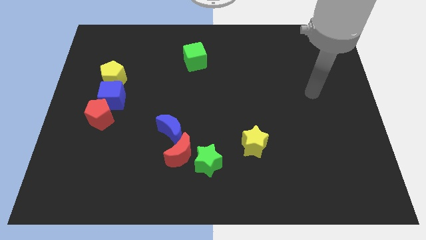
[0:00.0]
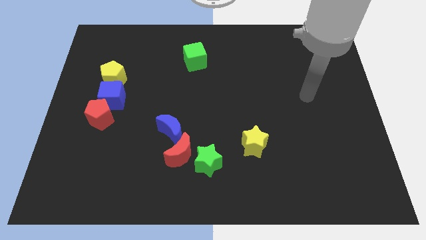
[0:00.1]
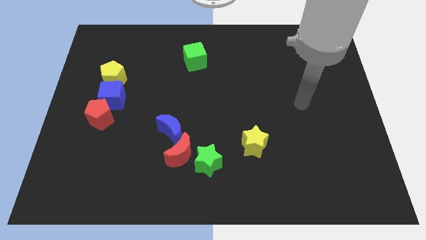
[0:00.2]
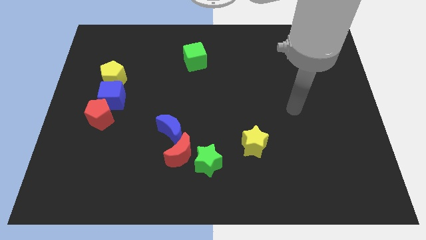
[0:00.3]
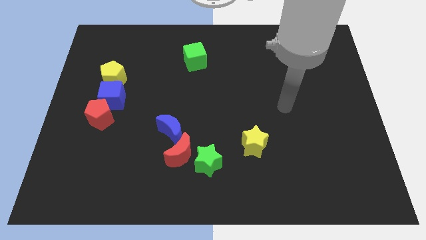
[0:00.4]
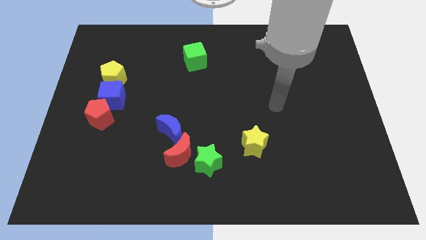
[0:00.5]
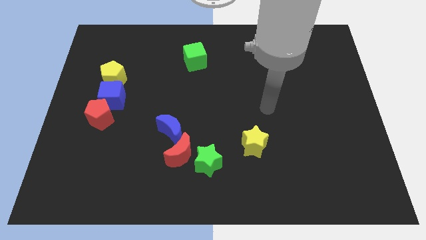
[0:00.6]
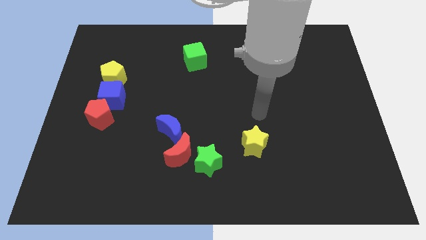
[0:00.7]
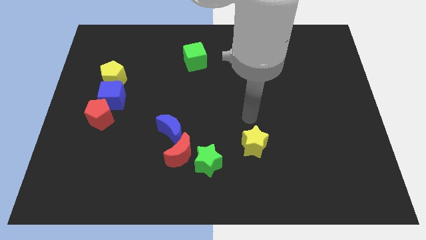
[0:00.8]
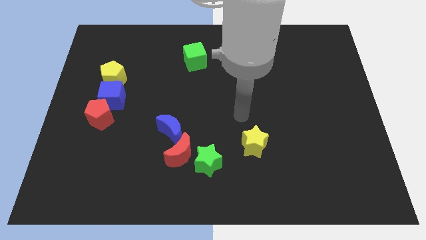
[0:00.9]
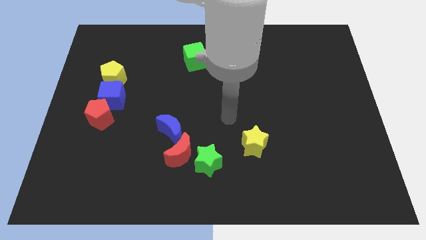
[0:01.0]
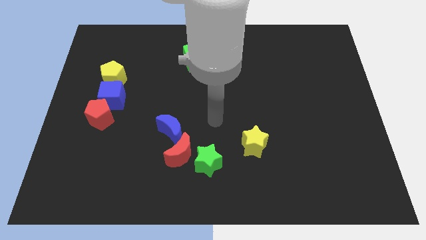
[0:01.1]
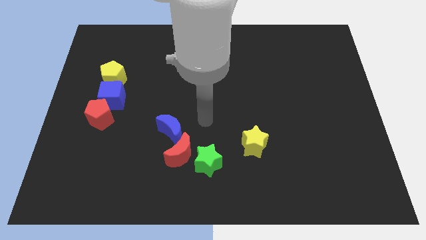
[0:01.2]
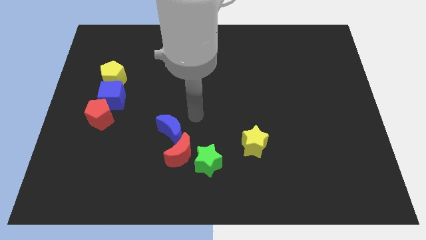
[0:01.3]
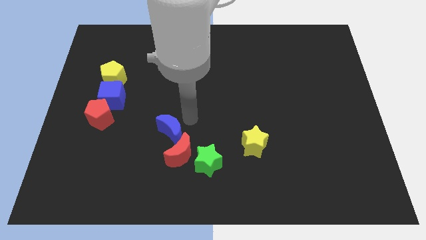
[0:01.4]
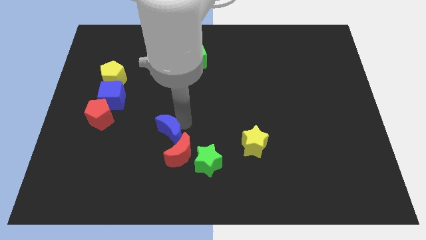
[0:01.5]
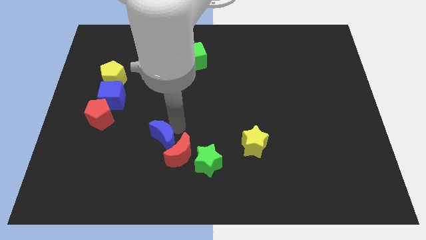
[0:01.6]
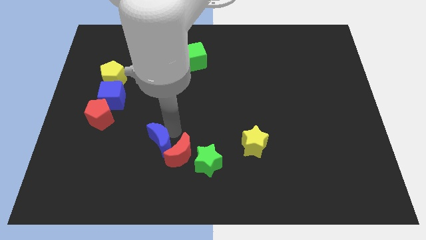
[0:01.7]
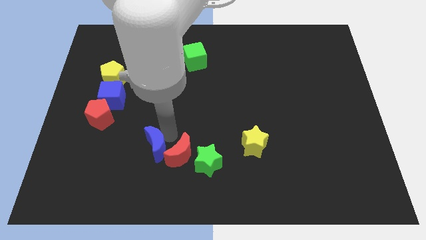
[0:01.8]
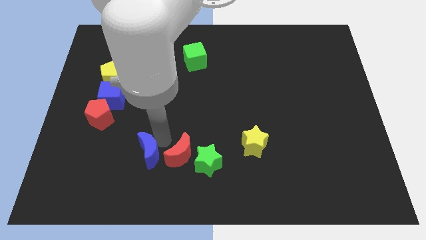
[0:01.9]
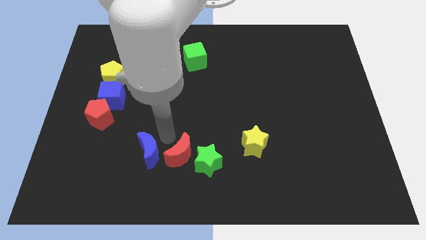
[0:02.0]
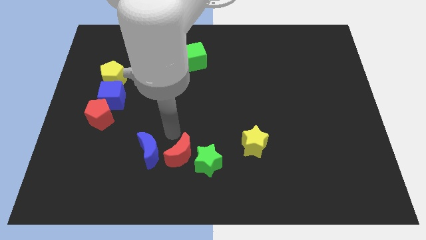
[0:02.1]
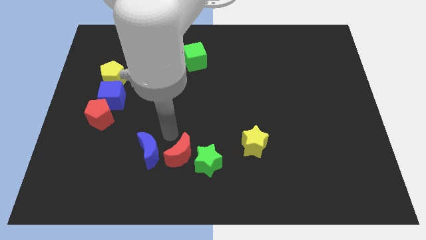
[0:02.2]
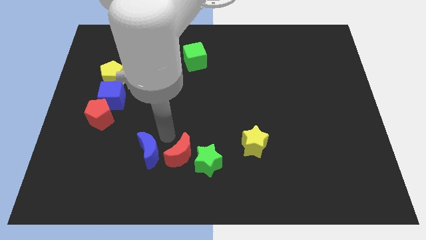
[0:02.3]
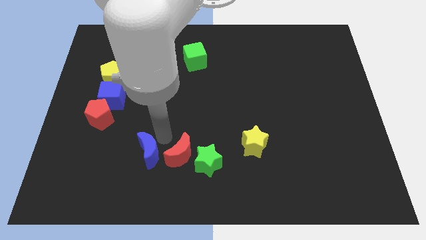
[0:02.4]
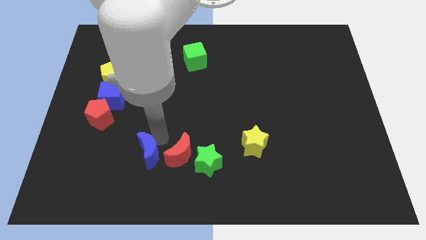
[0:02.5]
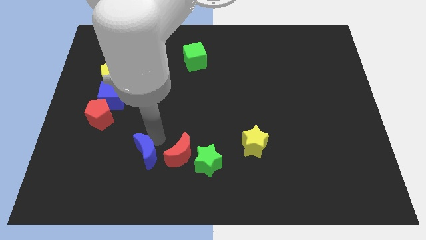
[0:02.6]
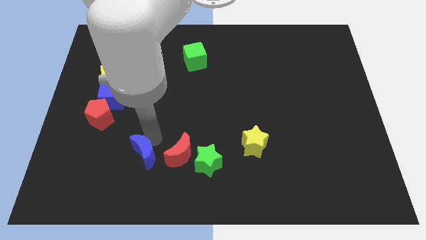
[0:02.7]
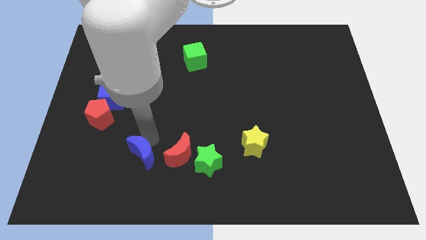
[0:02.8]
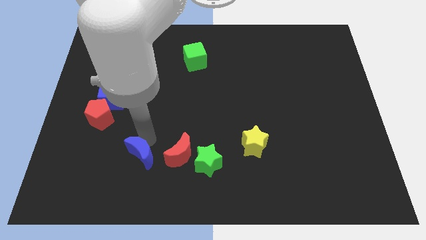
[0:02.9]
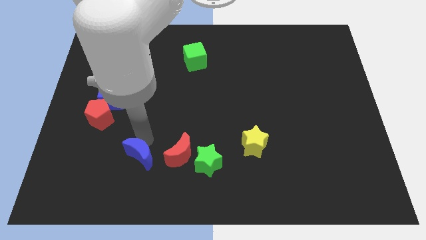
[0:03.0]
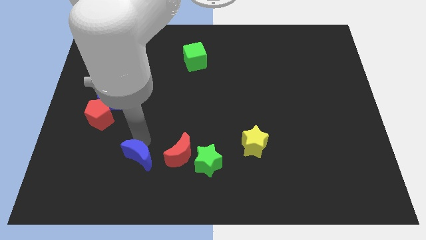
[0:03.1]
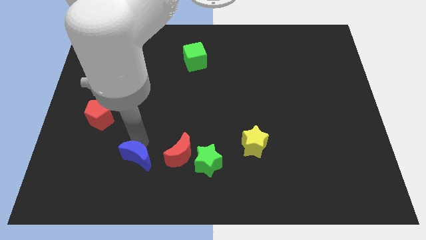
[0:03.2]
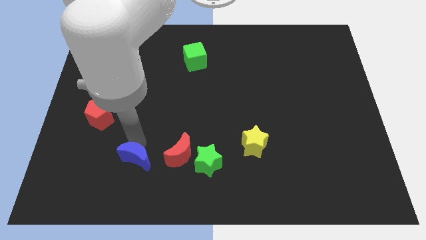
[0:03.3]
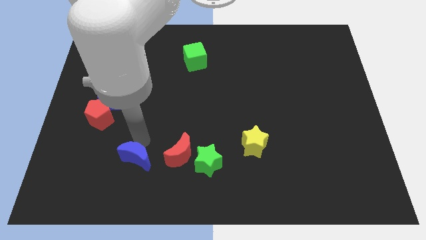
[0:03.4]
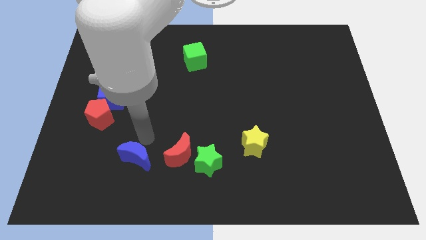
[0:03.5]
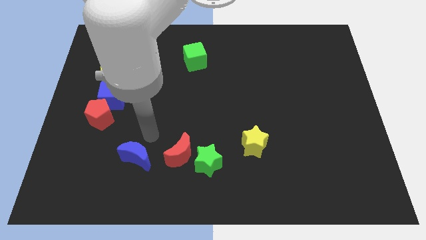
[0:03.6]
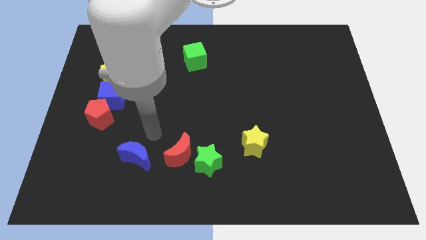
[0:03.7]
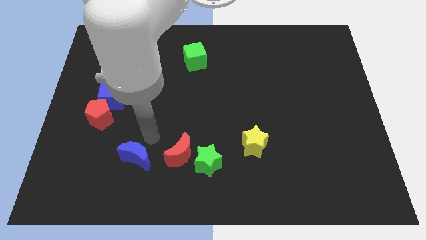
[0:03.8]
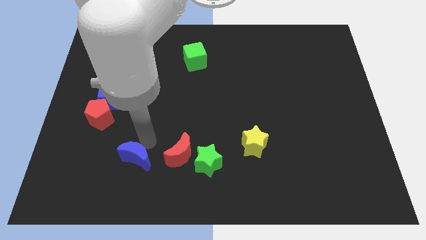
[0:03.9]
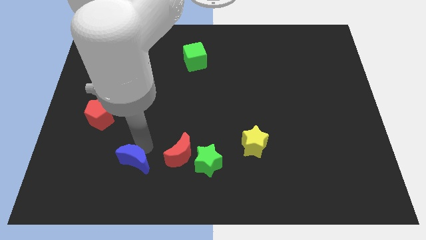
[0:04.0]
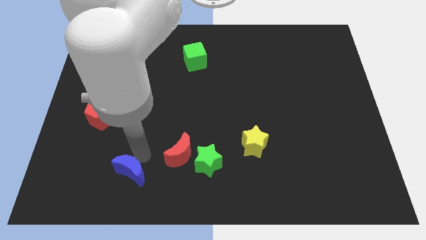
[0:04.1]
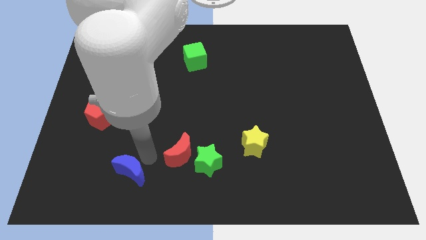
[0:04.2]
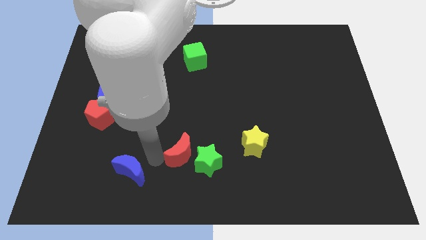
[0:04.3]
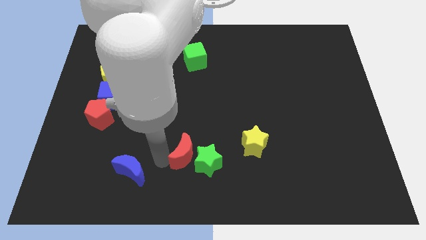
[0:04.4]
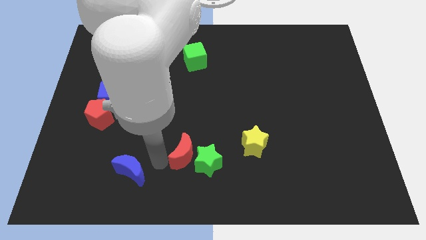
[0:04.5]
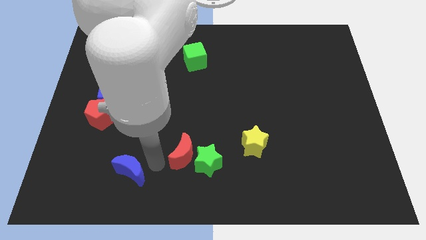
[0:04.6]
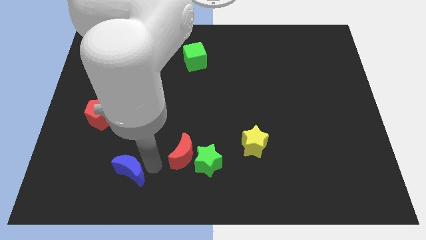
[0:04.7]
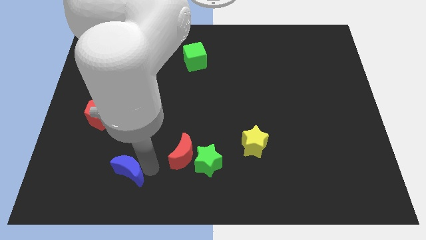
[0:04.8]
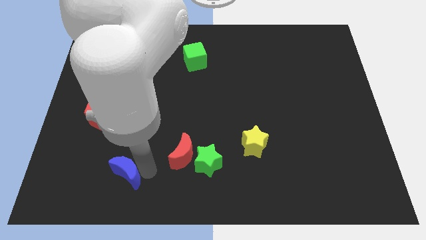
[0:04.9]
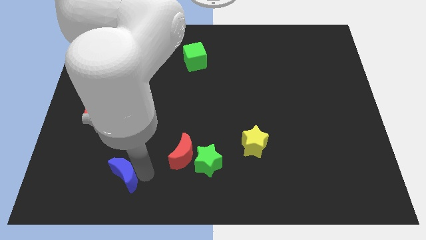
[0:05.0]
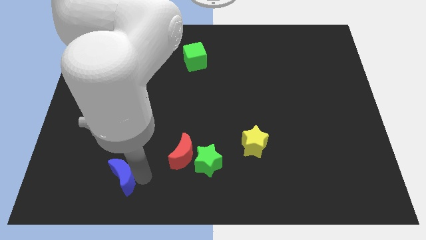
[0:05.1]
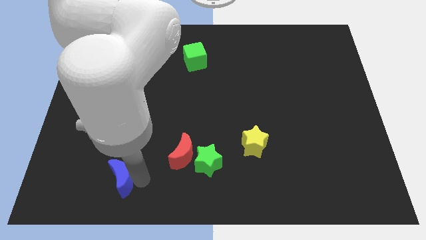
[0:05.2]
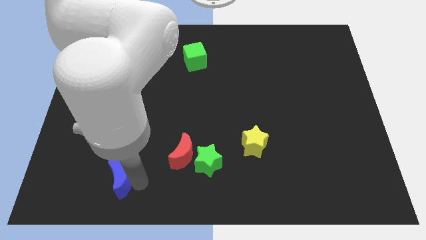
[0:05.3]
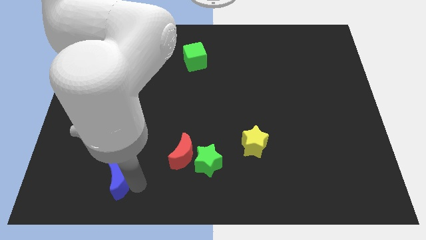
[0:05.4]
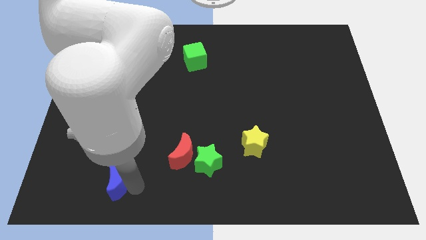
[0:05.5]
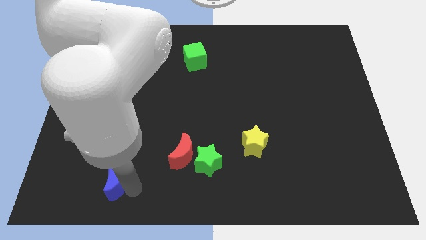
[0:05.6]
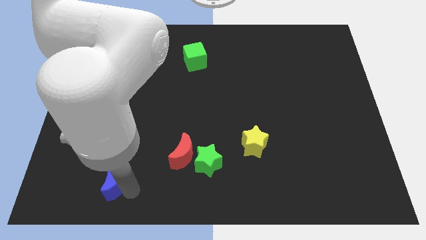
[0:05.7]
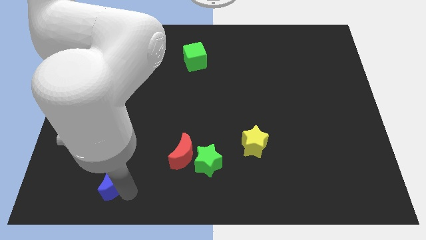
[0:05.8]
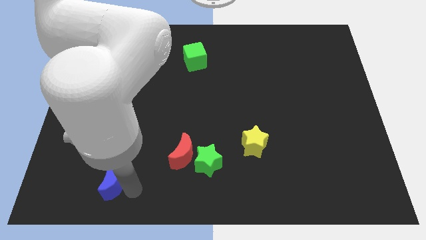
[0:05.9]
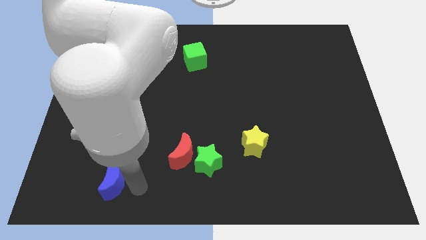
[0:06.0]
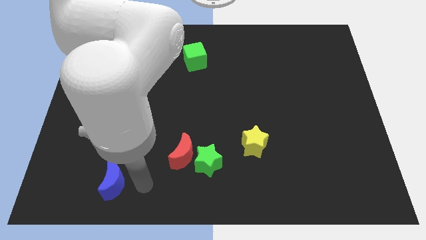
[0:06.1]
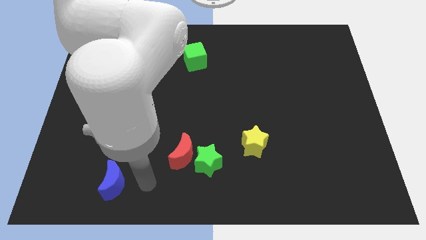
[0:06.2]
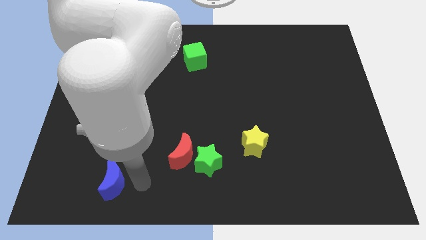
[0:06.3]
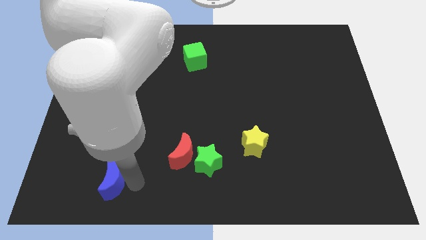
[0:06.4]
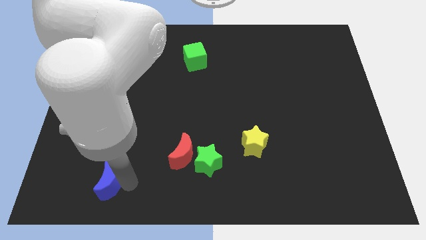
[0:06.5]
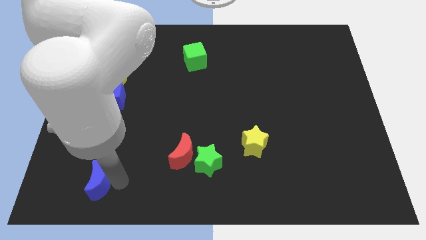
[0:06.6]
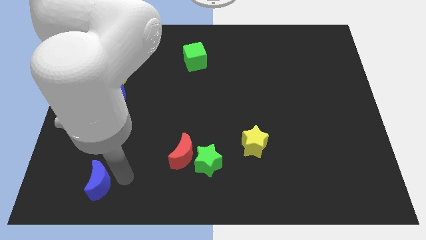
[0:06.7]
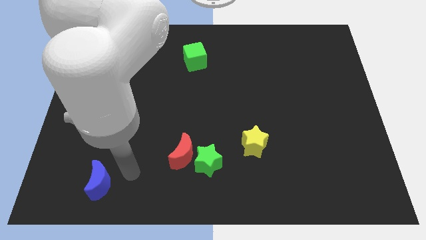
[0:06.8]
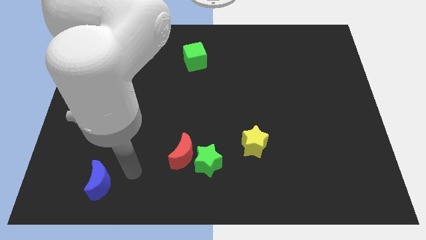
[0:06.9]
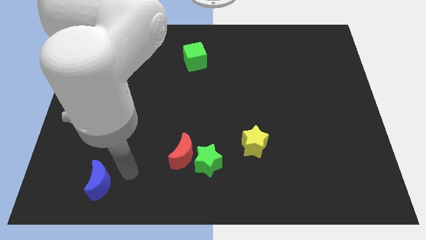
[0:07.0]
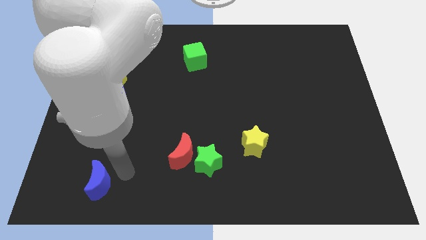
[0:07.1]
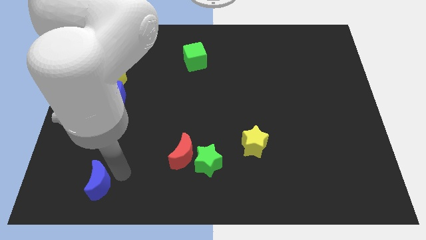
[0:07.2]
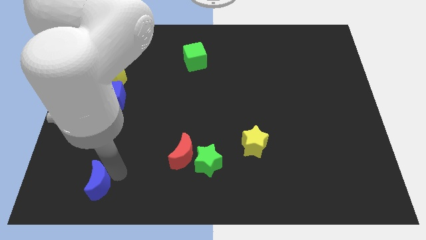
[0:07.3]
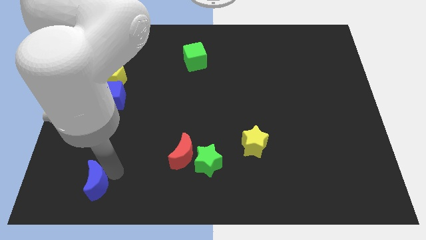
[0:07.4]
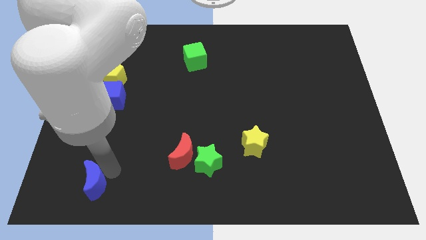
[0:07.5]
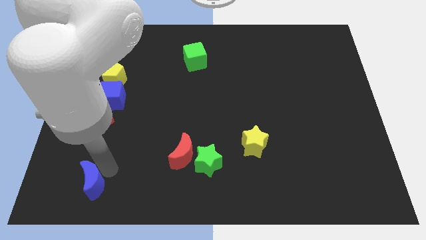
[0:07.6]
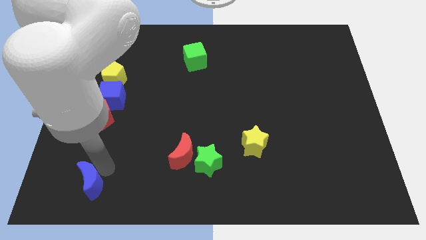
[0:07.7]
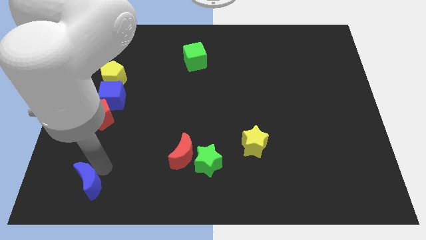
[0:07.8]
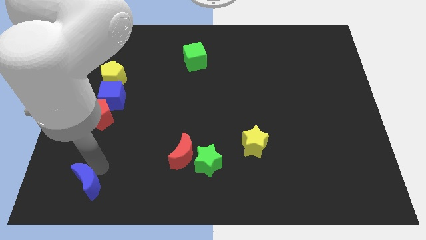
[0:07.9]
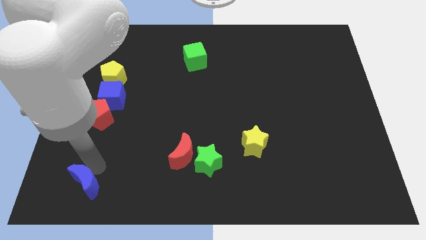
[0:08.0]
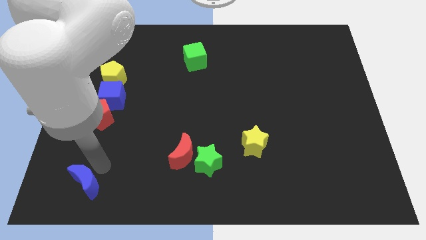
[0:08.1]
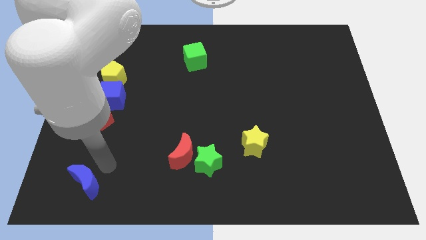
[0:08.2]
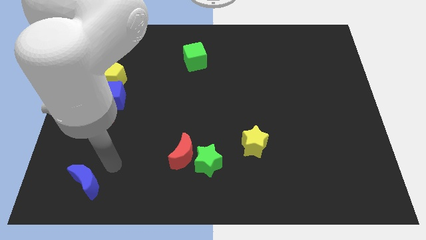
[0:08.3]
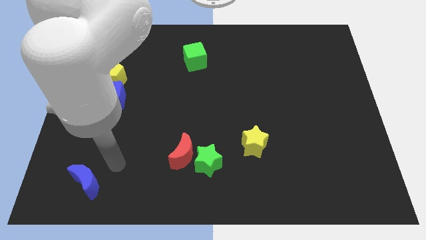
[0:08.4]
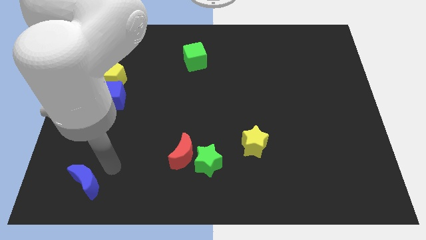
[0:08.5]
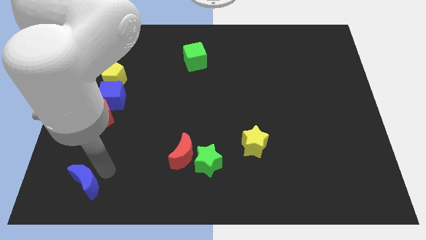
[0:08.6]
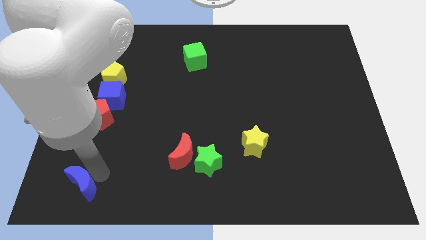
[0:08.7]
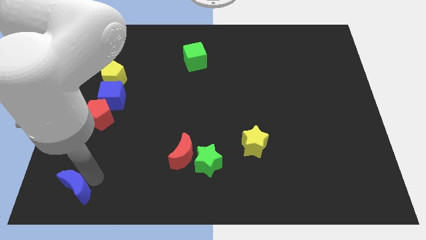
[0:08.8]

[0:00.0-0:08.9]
put the blue moon to the bottom left
